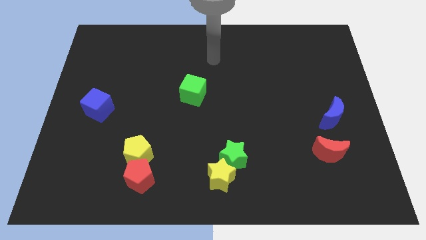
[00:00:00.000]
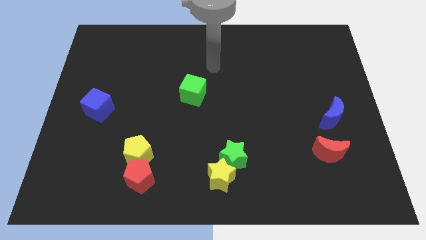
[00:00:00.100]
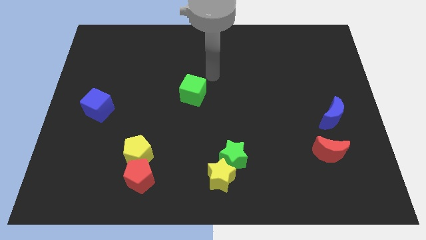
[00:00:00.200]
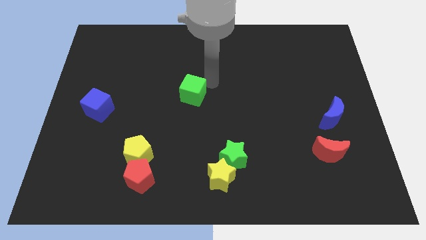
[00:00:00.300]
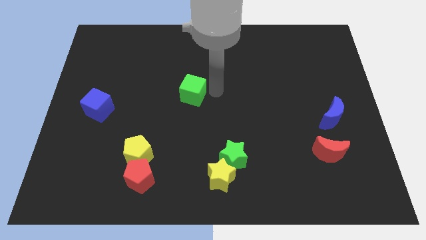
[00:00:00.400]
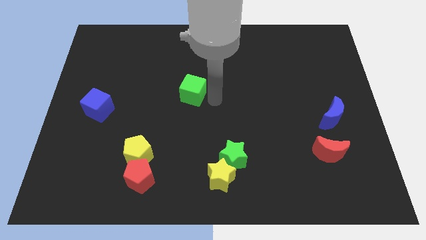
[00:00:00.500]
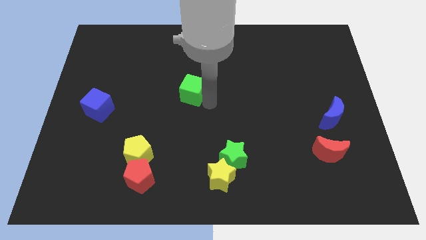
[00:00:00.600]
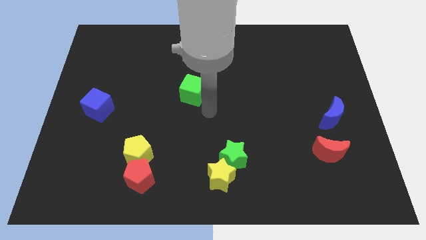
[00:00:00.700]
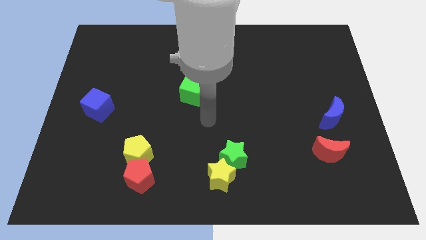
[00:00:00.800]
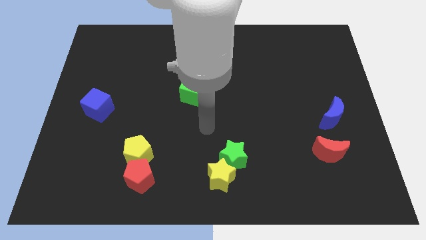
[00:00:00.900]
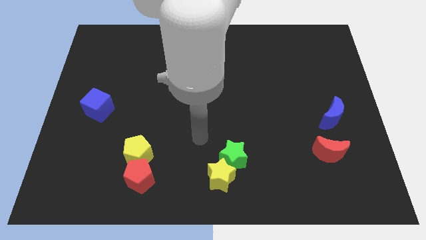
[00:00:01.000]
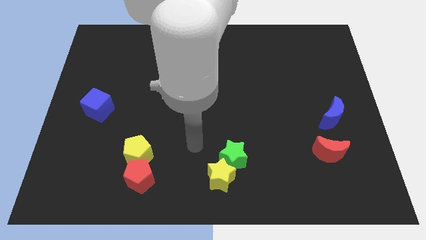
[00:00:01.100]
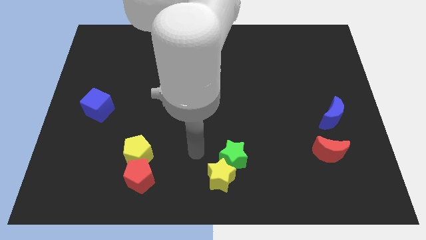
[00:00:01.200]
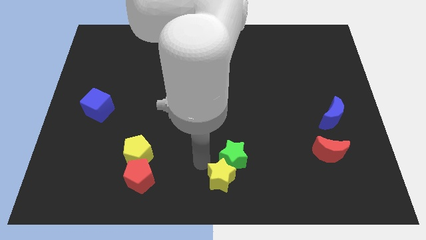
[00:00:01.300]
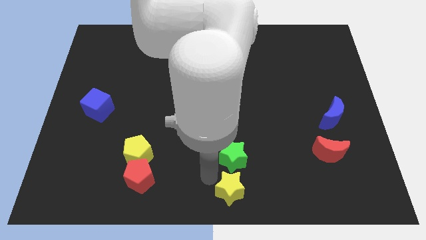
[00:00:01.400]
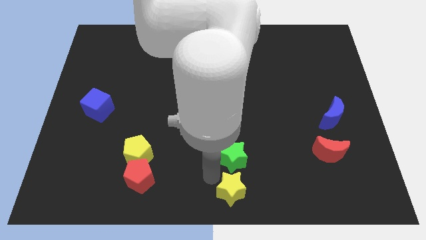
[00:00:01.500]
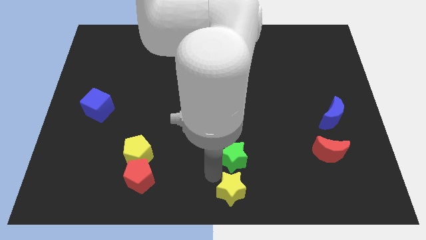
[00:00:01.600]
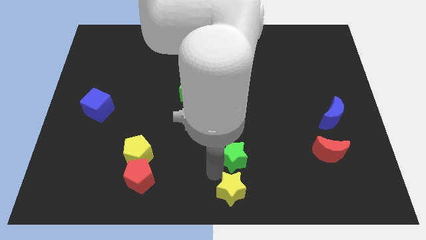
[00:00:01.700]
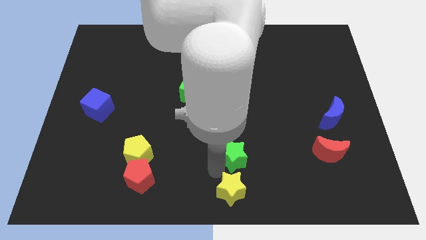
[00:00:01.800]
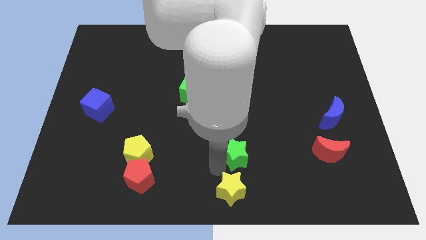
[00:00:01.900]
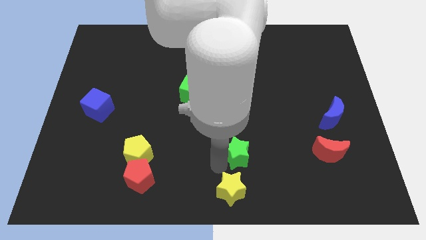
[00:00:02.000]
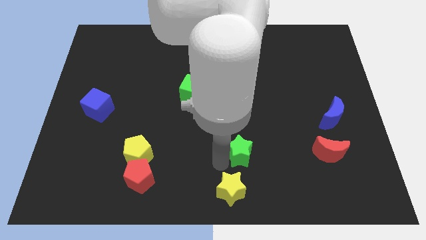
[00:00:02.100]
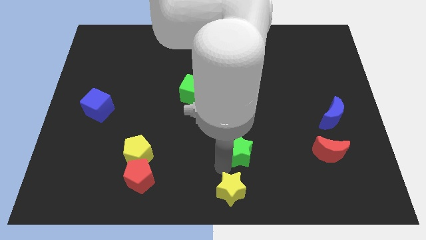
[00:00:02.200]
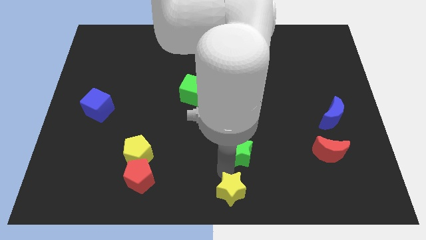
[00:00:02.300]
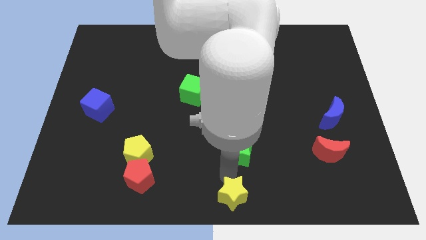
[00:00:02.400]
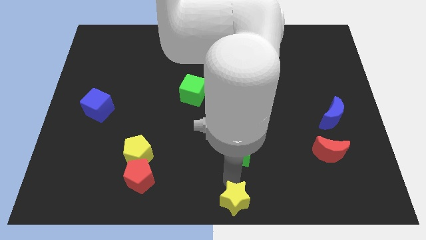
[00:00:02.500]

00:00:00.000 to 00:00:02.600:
move the green star away from the yellow star

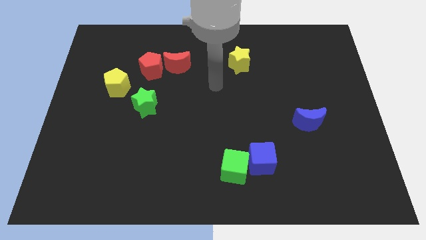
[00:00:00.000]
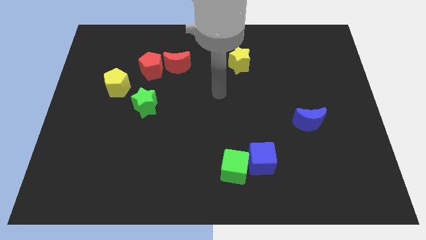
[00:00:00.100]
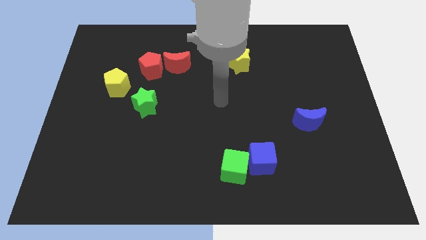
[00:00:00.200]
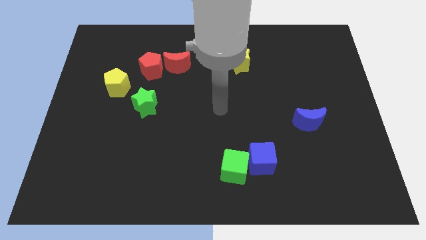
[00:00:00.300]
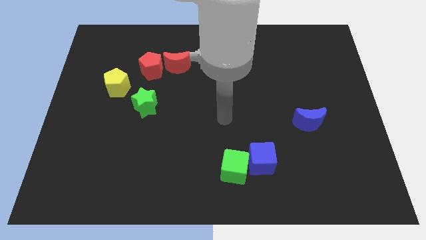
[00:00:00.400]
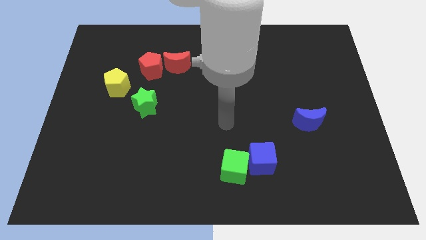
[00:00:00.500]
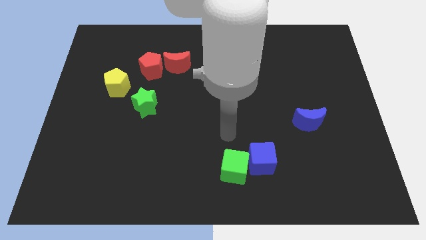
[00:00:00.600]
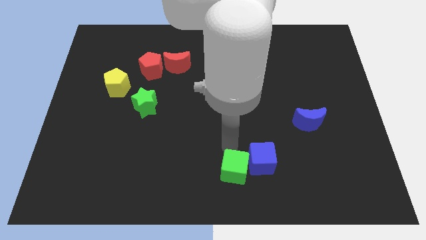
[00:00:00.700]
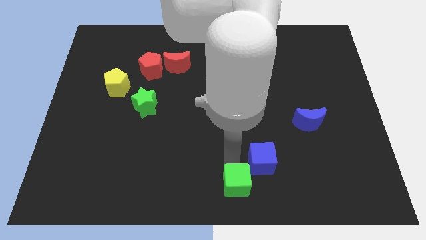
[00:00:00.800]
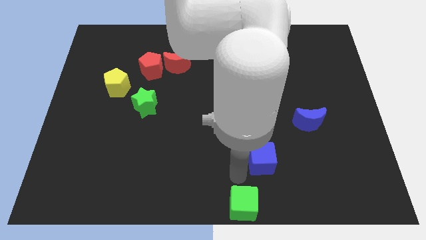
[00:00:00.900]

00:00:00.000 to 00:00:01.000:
move the blue cube away from the green cube

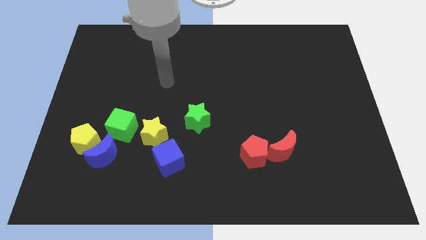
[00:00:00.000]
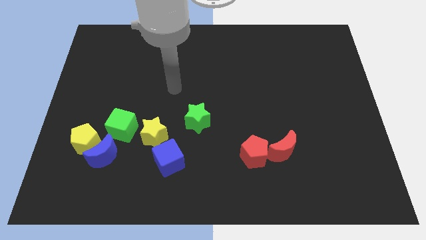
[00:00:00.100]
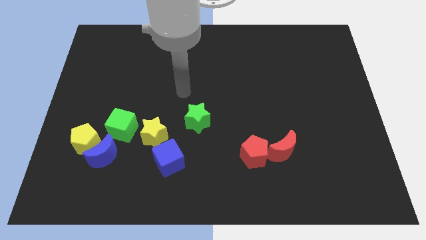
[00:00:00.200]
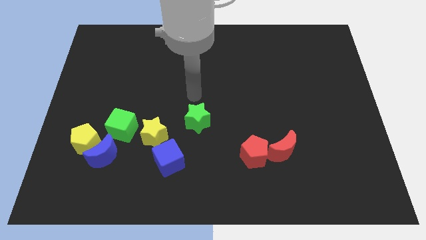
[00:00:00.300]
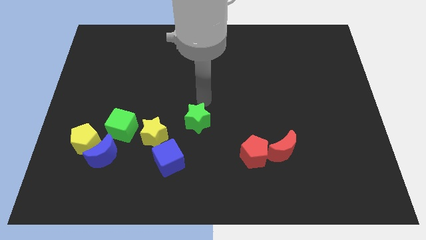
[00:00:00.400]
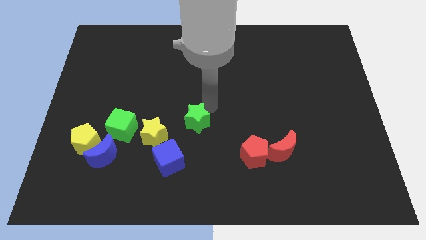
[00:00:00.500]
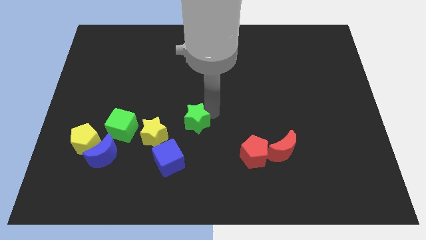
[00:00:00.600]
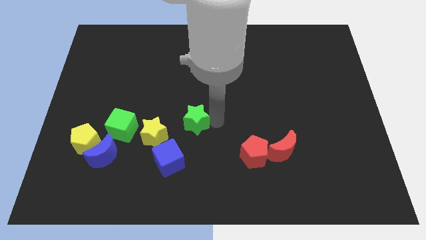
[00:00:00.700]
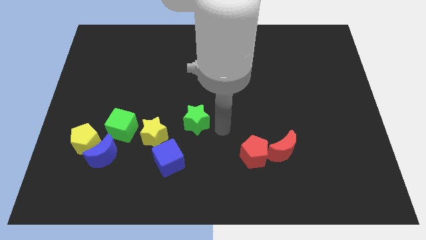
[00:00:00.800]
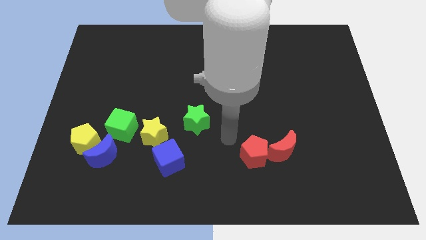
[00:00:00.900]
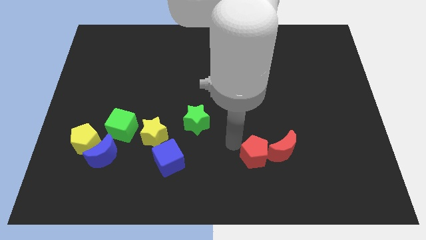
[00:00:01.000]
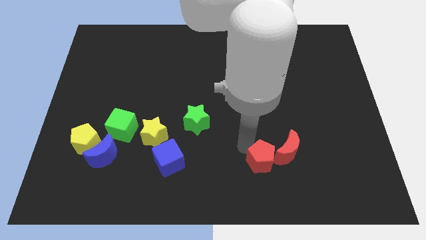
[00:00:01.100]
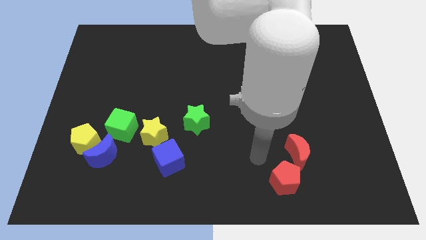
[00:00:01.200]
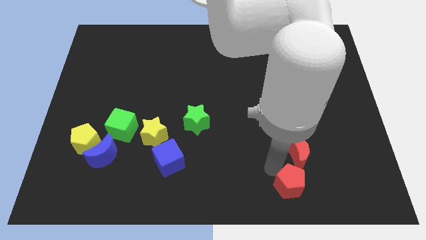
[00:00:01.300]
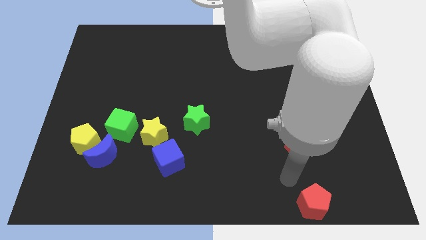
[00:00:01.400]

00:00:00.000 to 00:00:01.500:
move the red moon away from the red pentagon

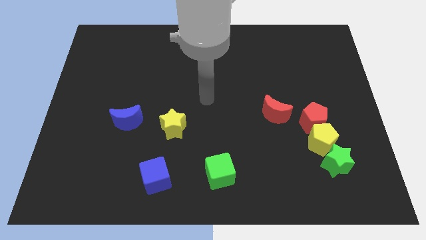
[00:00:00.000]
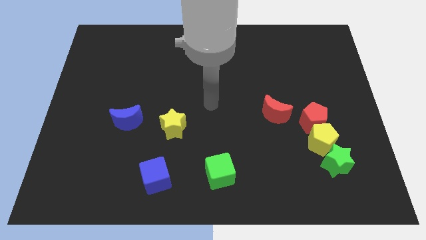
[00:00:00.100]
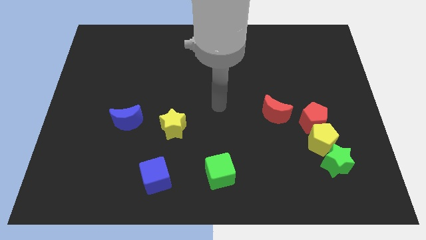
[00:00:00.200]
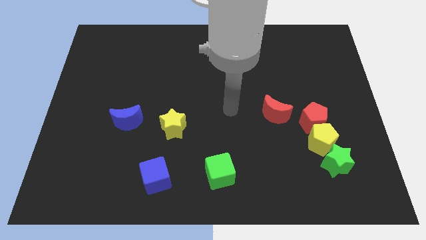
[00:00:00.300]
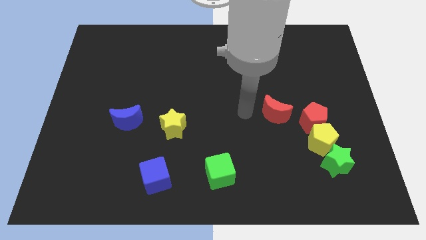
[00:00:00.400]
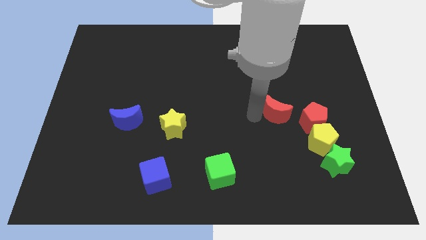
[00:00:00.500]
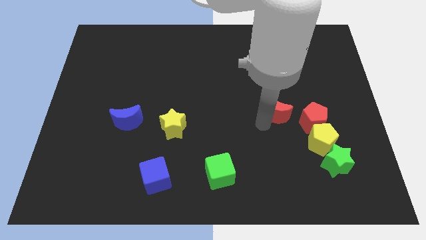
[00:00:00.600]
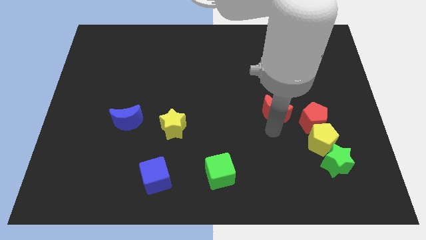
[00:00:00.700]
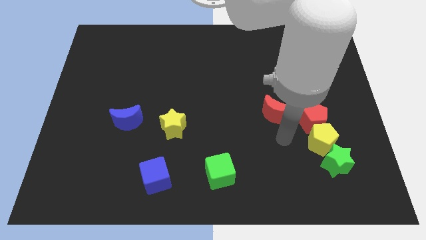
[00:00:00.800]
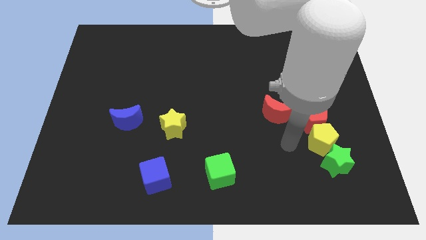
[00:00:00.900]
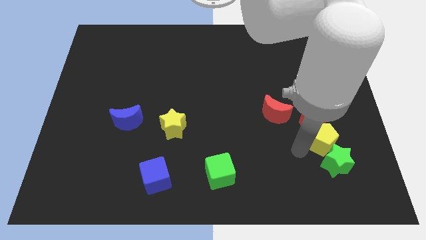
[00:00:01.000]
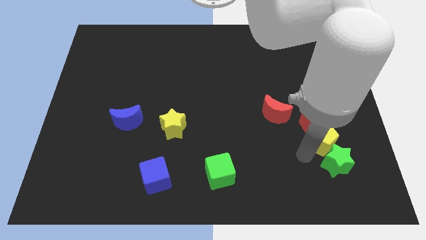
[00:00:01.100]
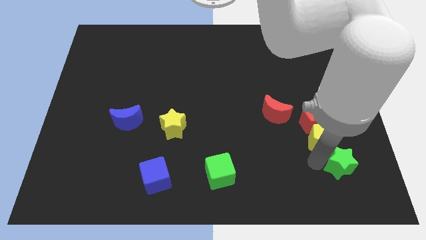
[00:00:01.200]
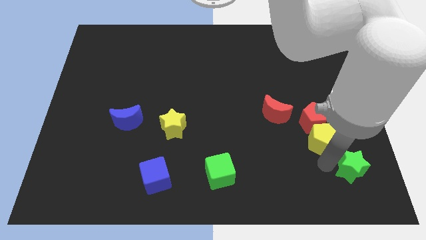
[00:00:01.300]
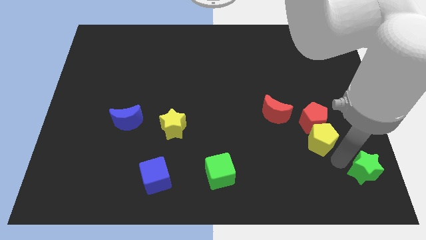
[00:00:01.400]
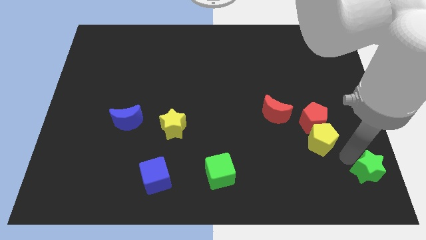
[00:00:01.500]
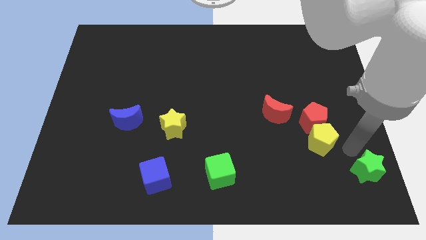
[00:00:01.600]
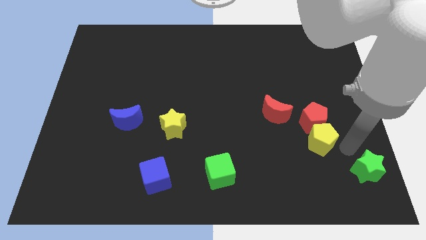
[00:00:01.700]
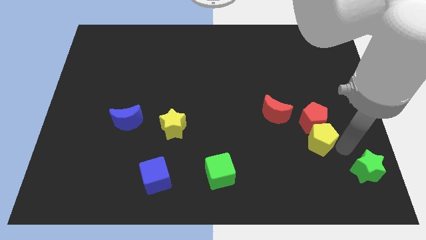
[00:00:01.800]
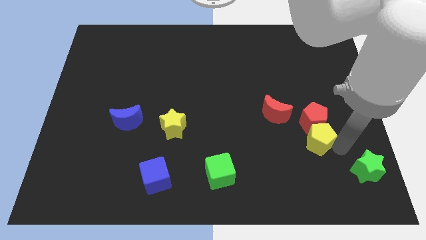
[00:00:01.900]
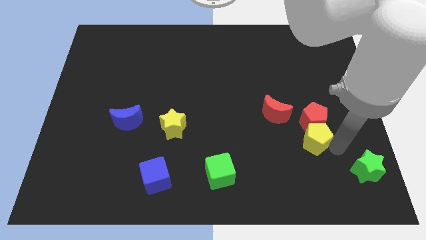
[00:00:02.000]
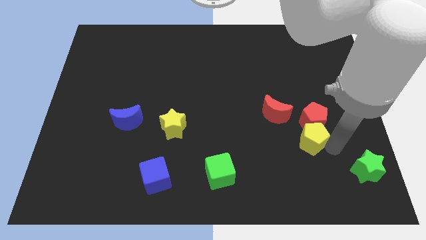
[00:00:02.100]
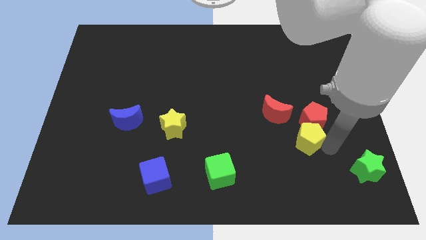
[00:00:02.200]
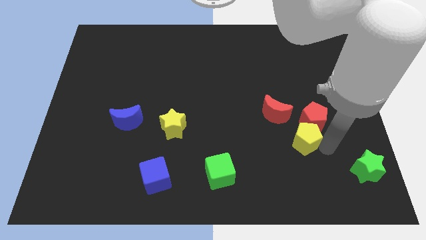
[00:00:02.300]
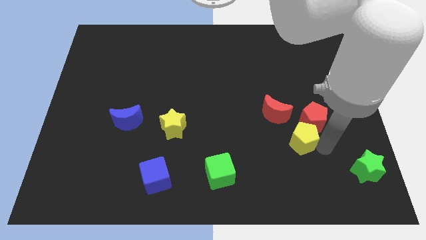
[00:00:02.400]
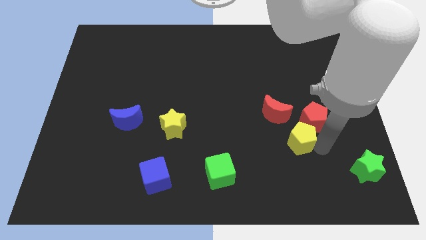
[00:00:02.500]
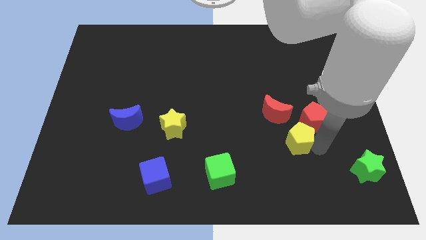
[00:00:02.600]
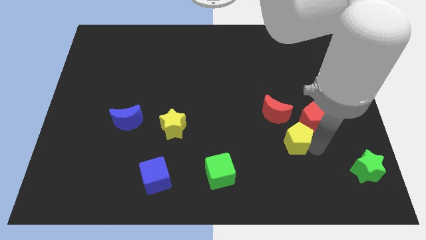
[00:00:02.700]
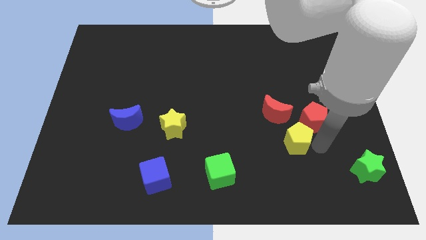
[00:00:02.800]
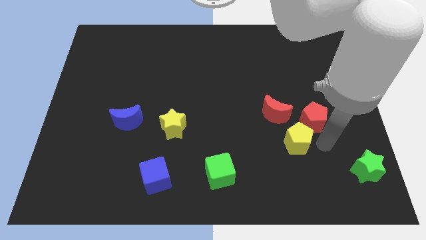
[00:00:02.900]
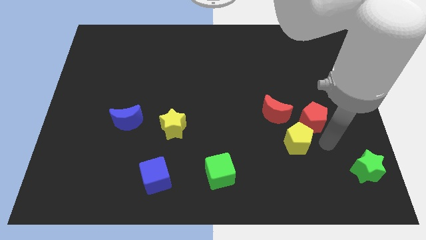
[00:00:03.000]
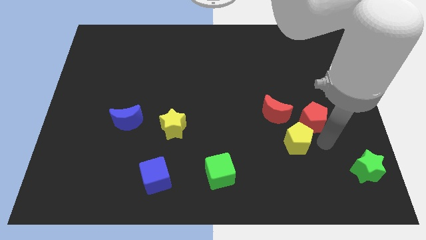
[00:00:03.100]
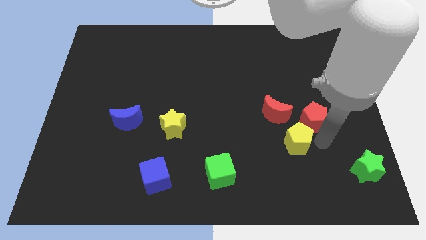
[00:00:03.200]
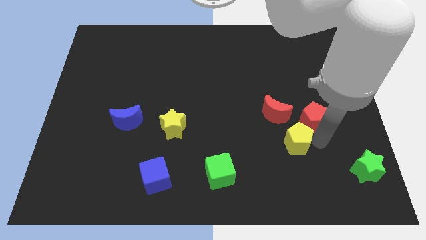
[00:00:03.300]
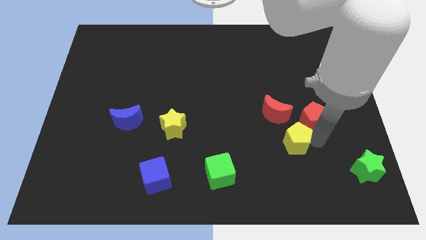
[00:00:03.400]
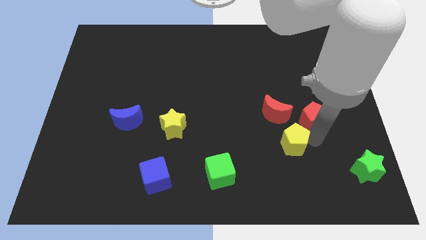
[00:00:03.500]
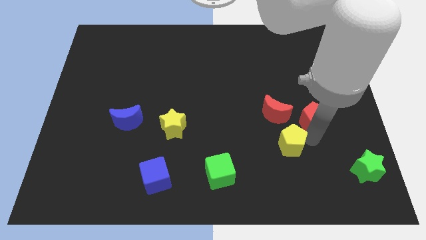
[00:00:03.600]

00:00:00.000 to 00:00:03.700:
separate the yellow pentagon from the red pentagon and green star

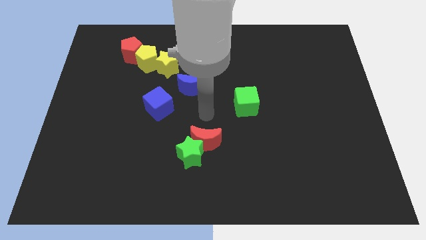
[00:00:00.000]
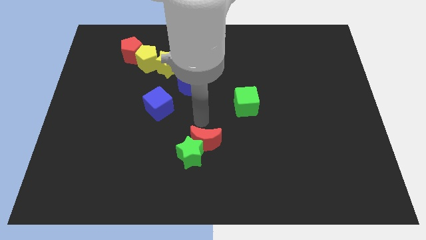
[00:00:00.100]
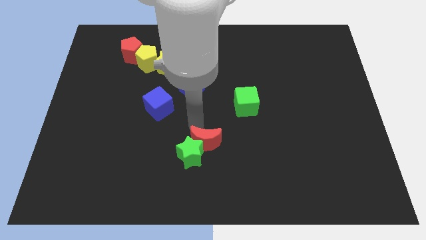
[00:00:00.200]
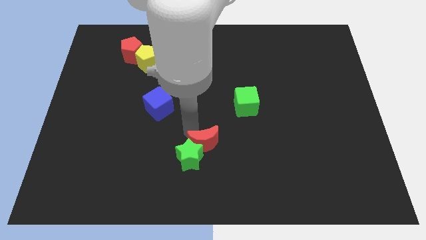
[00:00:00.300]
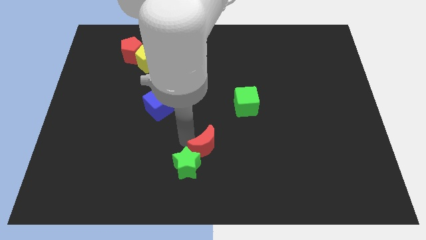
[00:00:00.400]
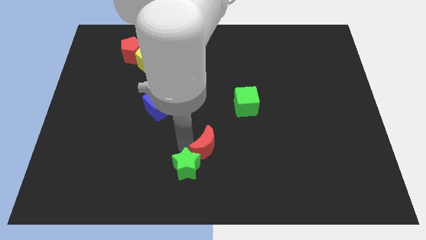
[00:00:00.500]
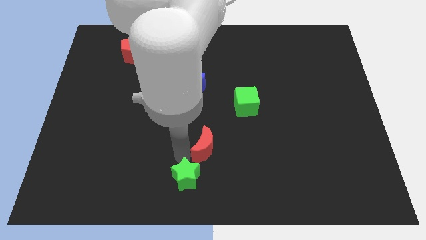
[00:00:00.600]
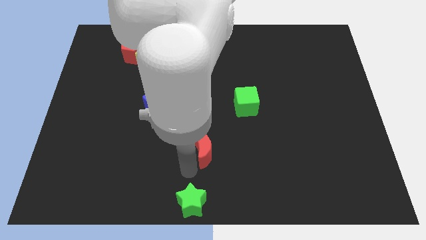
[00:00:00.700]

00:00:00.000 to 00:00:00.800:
separate the red moon from the green star
